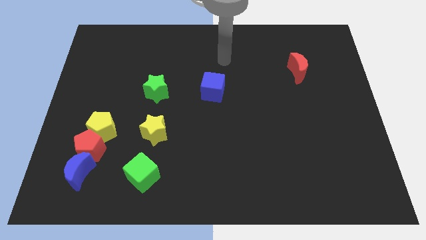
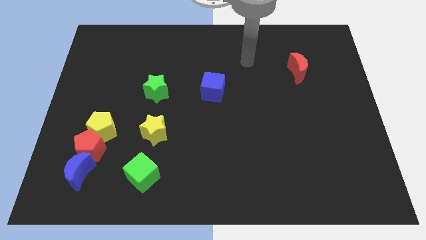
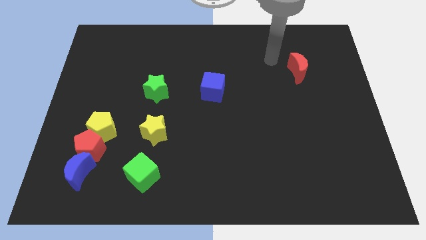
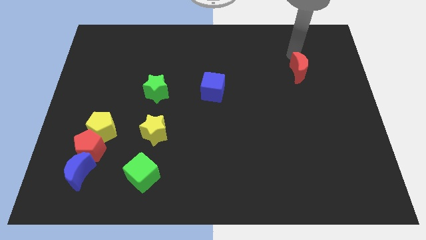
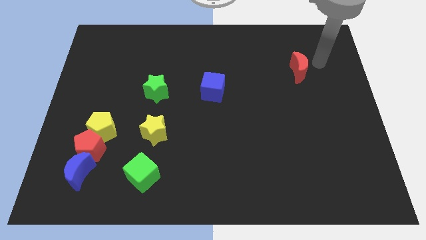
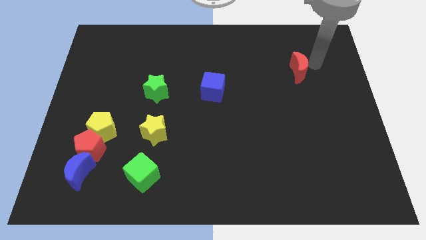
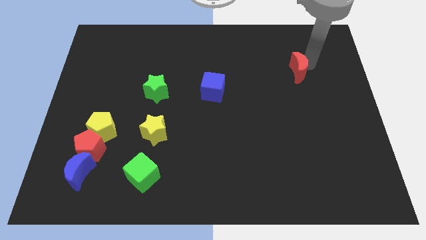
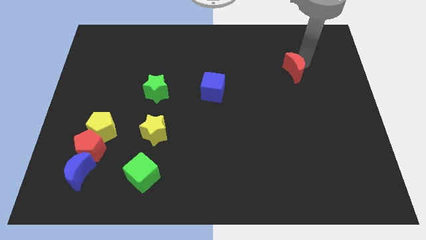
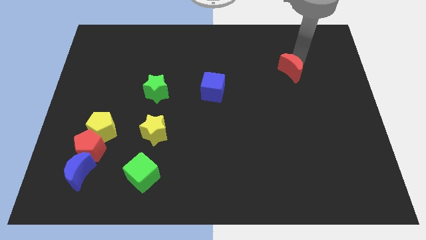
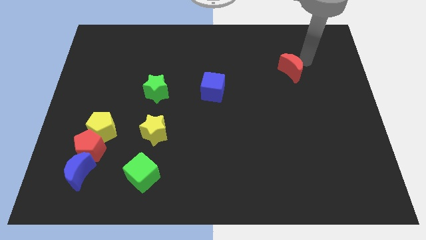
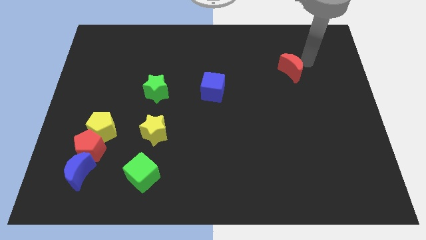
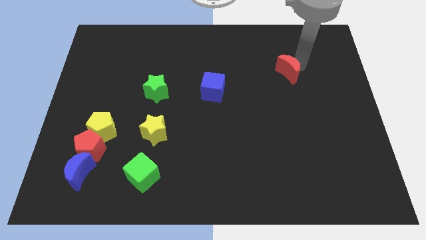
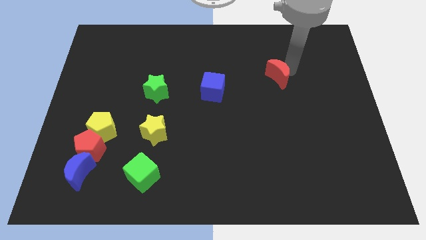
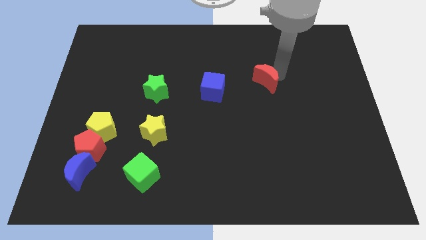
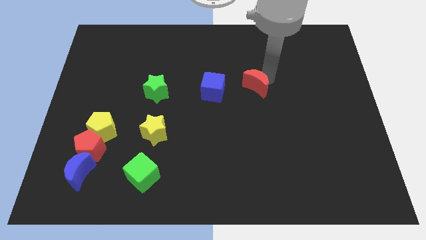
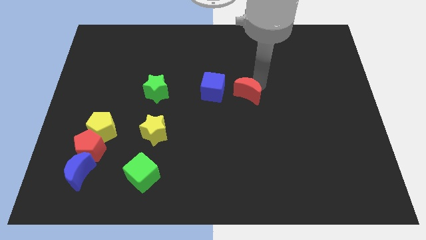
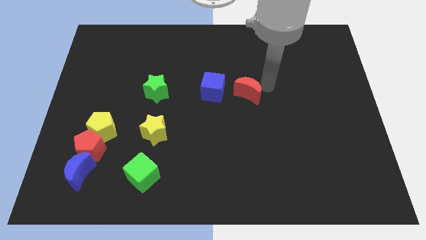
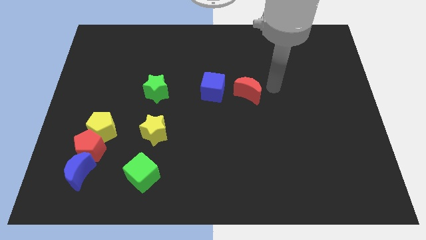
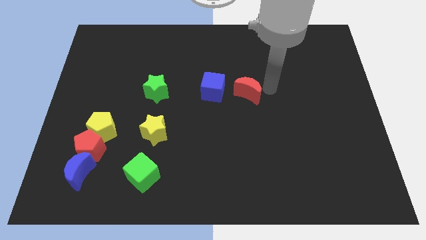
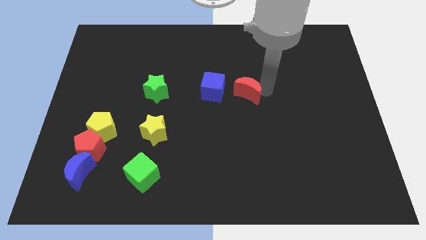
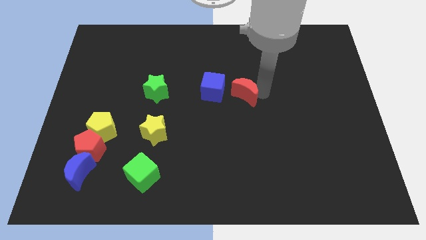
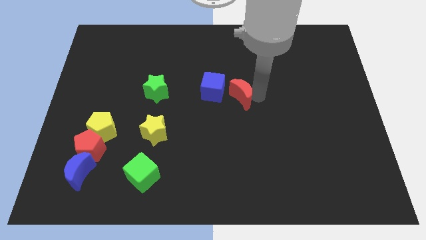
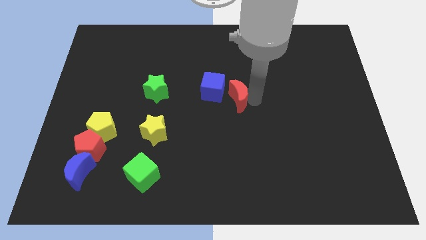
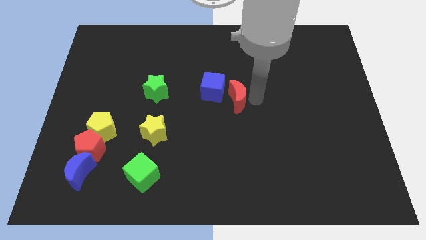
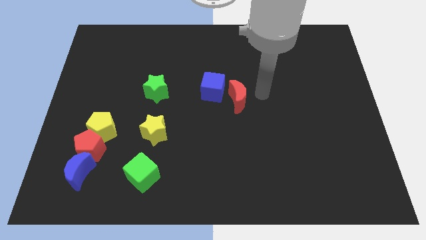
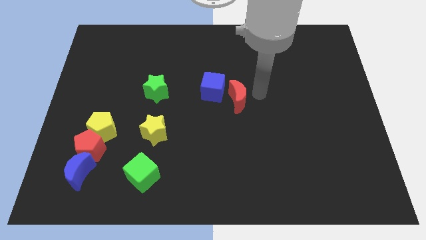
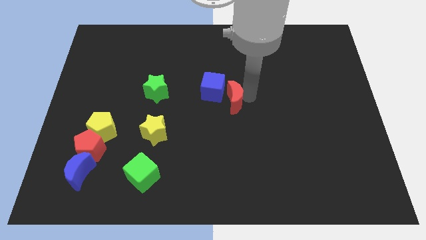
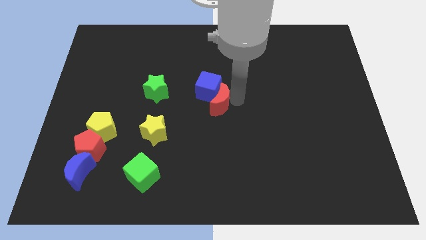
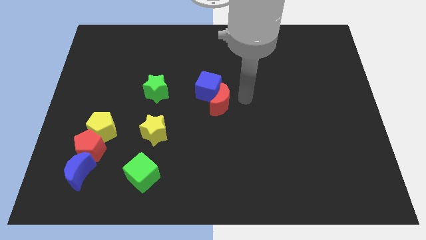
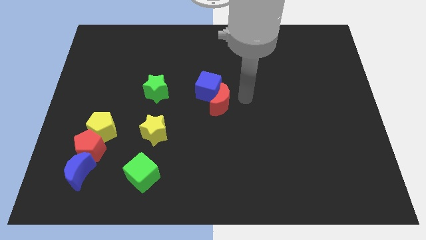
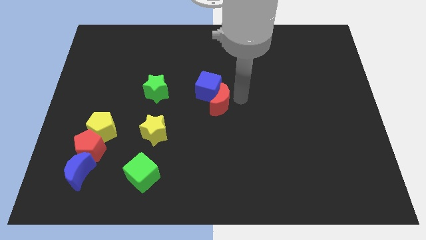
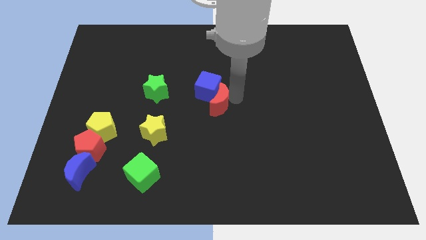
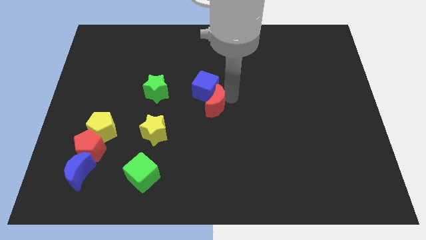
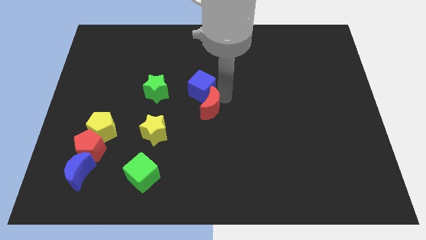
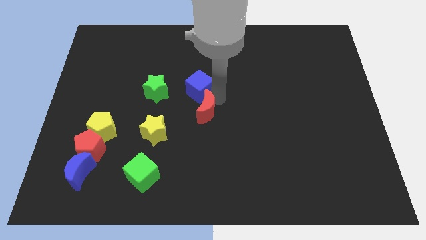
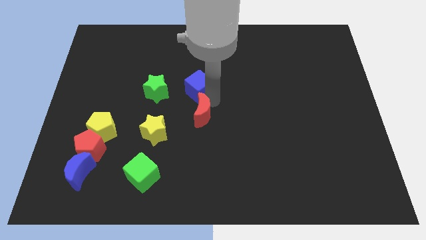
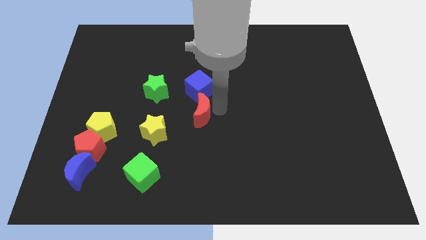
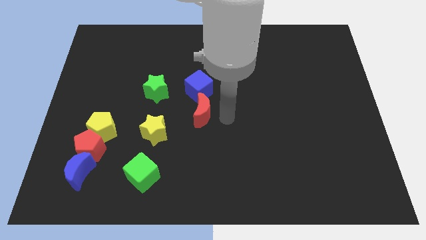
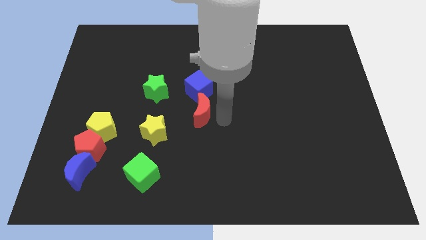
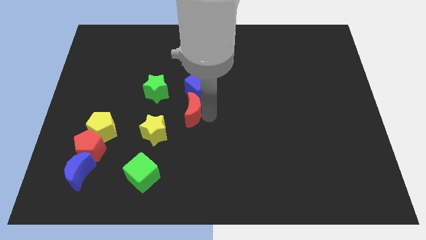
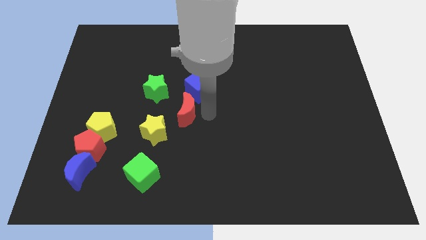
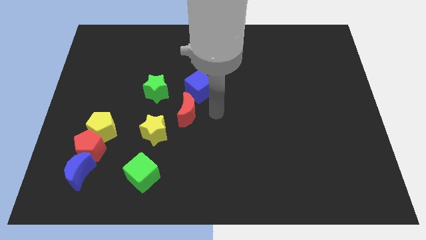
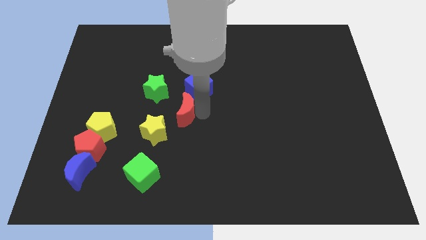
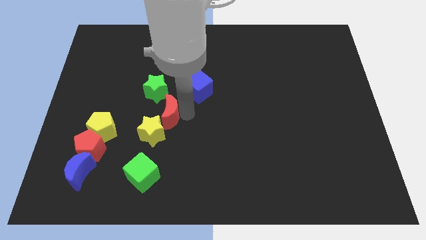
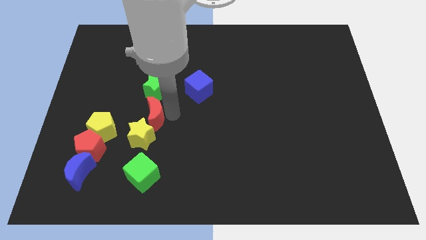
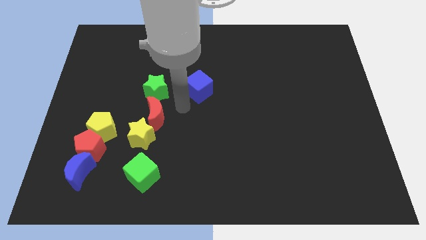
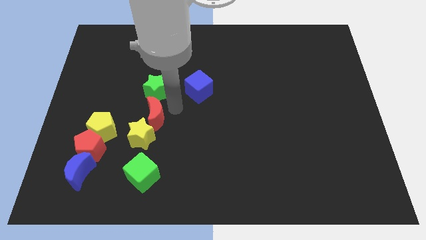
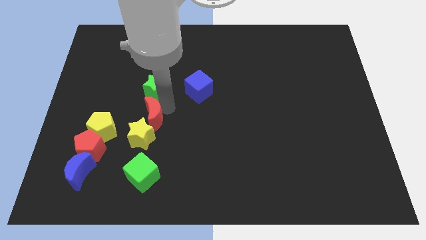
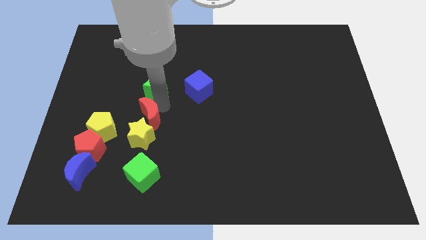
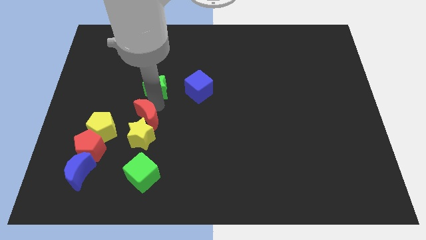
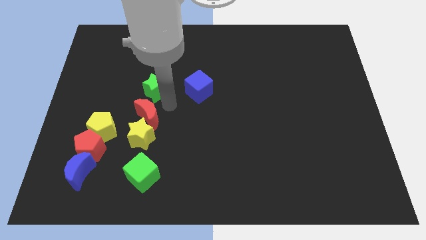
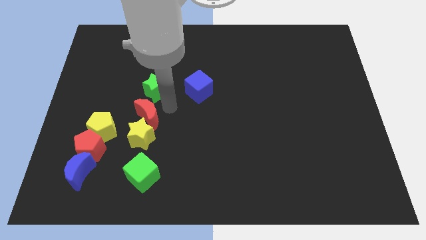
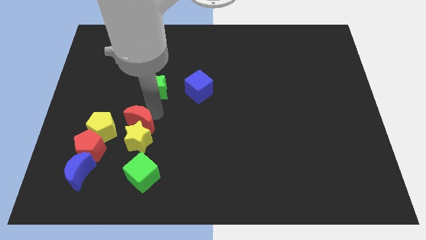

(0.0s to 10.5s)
slide the red moon to the top right side of the red pentagon

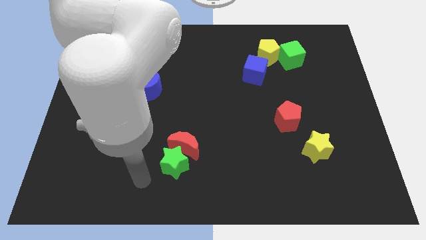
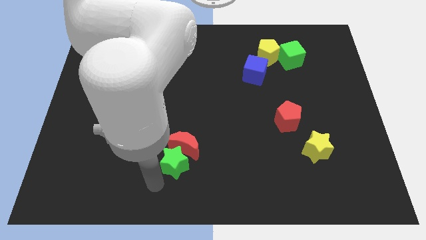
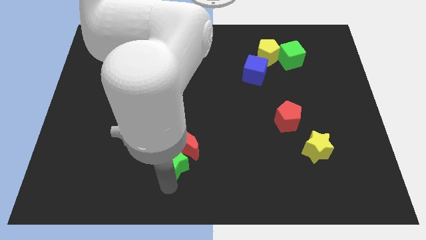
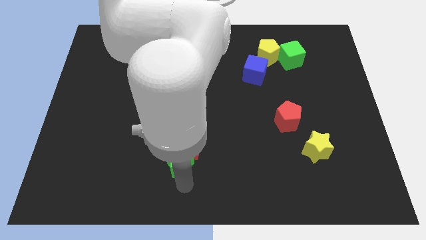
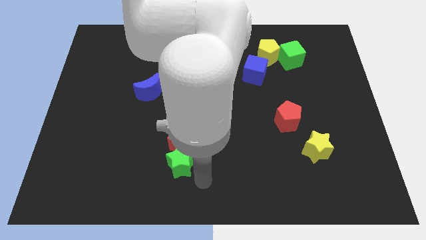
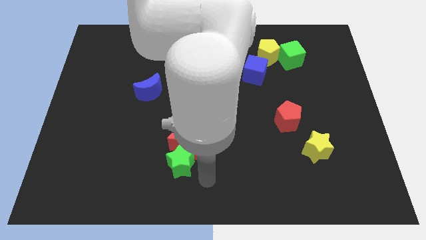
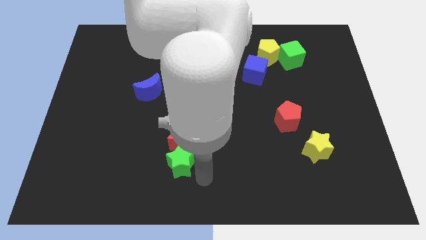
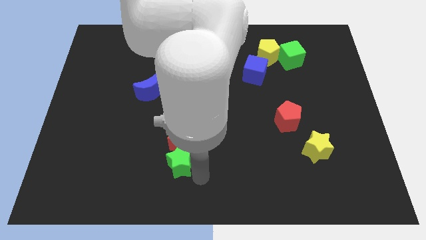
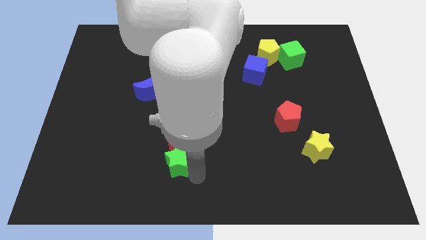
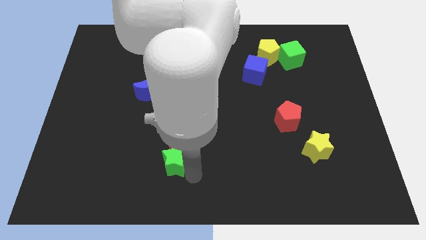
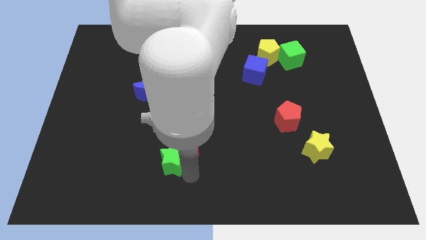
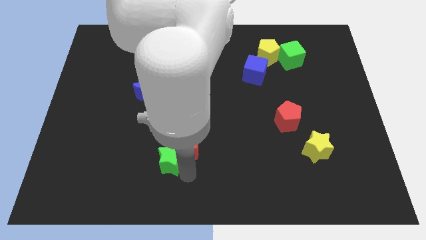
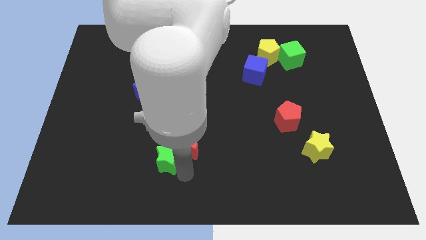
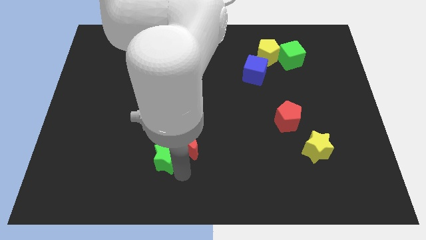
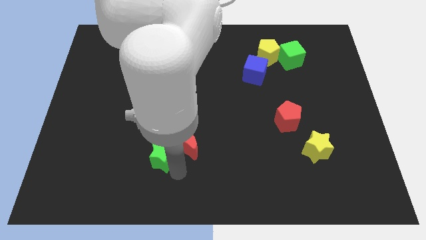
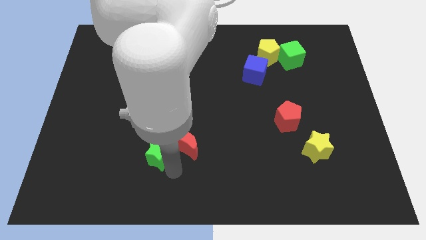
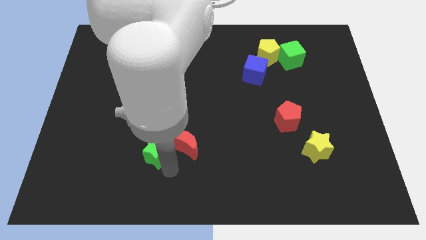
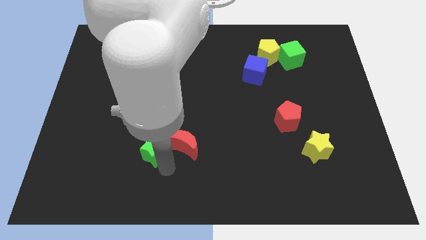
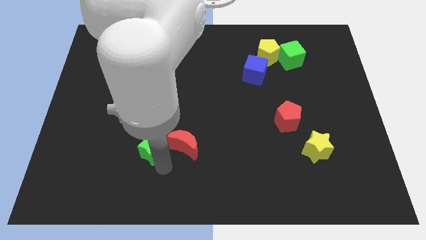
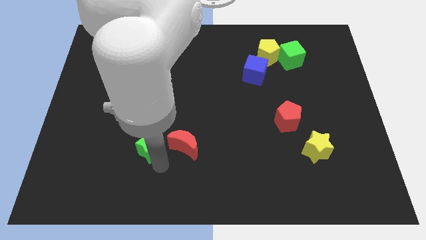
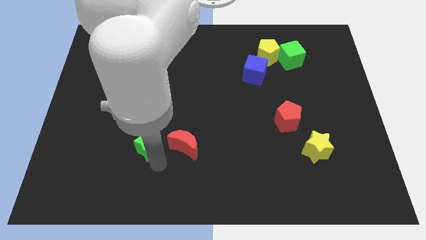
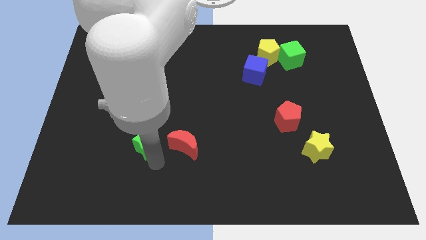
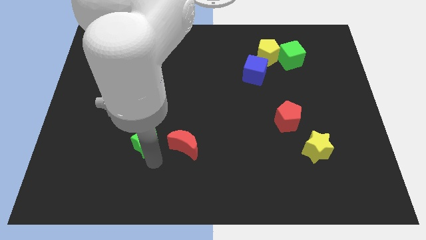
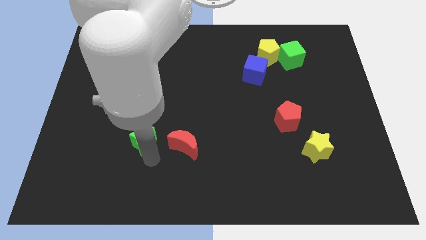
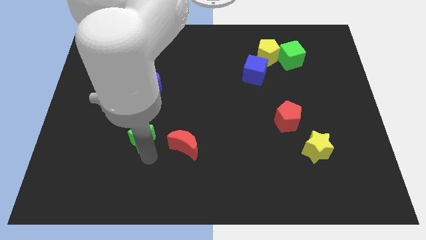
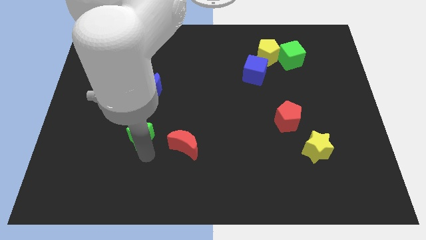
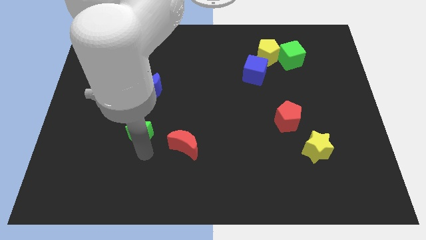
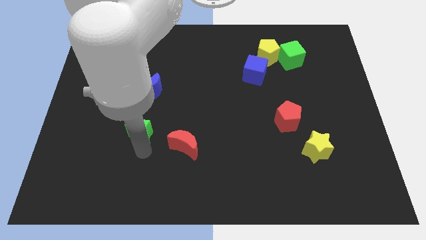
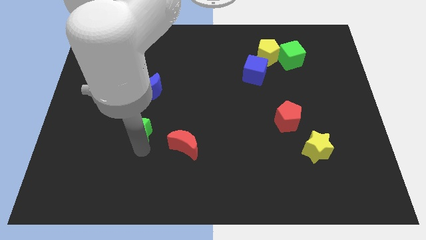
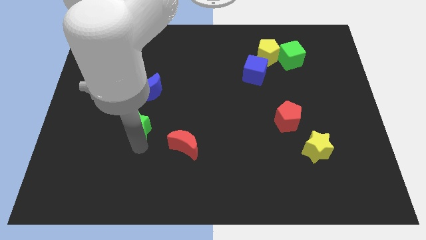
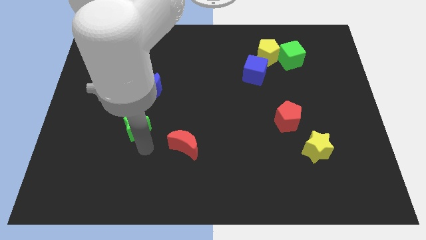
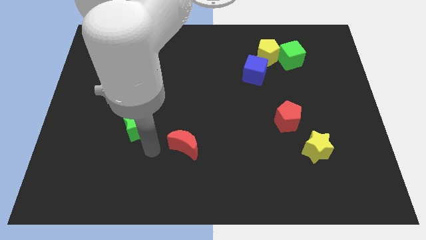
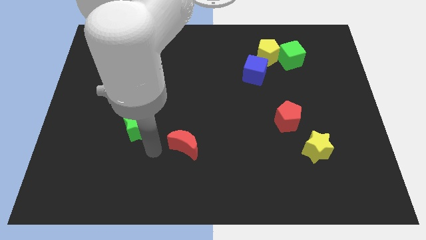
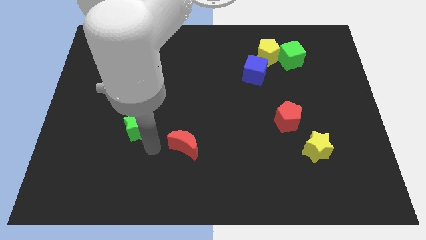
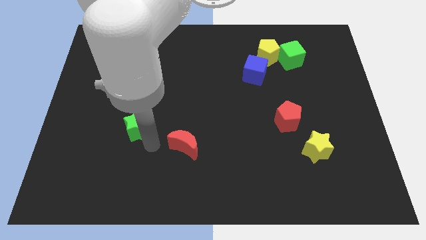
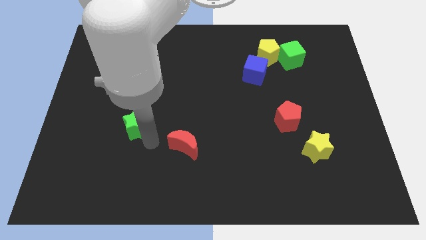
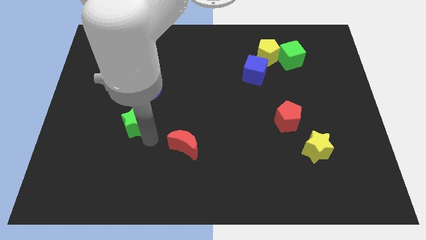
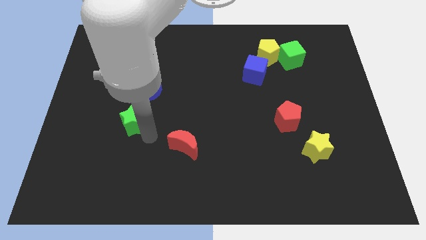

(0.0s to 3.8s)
move the green star to the bottom left of the blue moon
